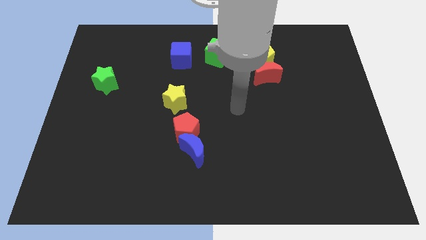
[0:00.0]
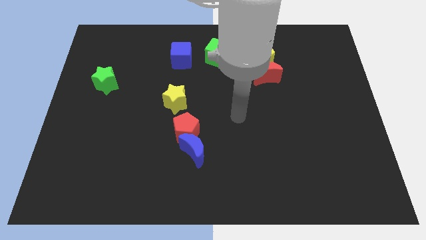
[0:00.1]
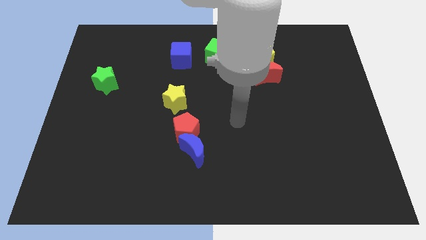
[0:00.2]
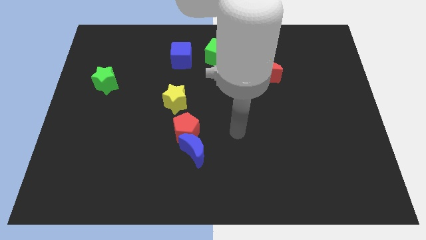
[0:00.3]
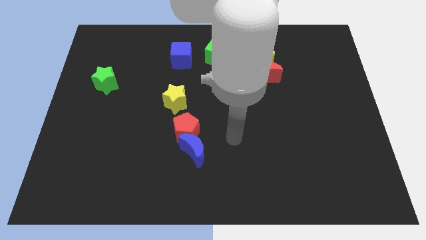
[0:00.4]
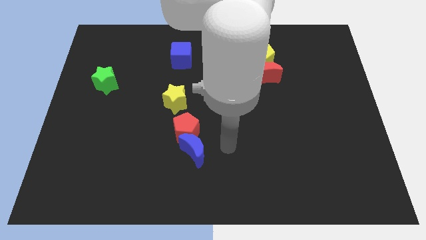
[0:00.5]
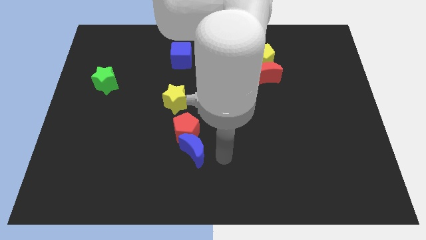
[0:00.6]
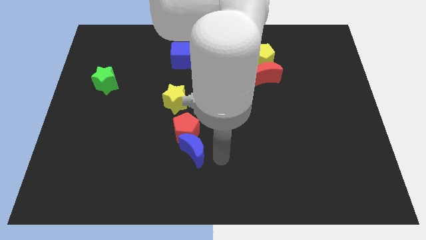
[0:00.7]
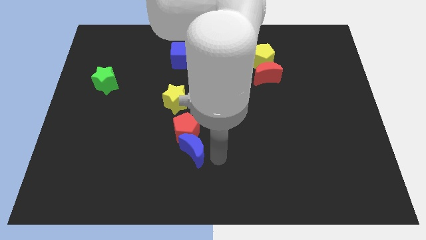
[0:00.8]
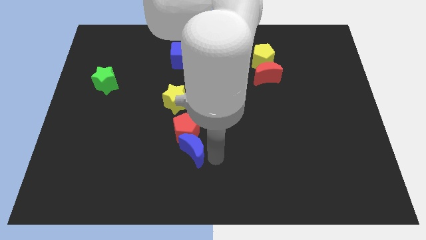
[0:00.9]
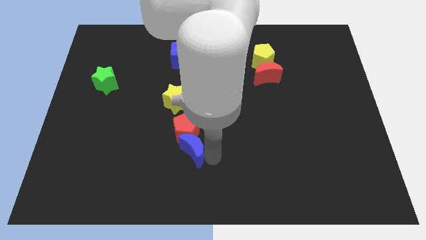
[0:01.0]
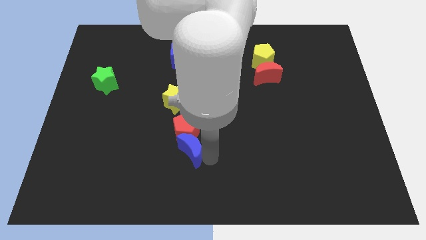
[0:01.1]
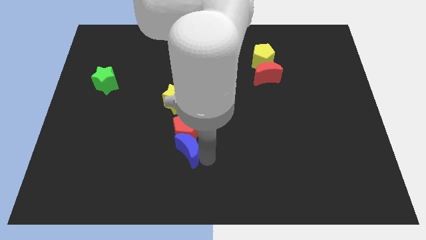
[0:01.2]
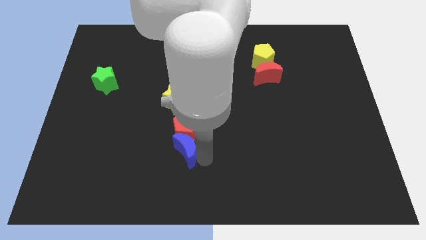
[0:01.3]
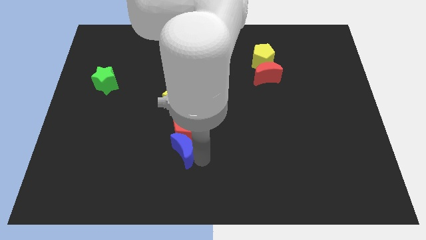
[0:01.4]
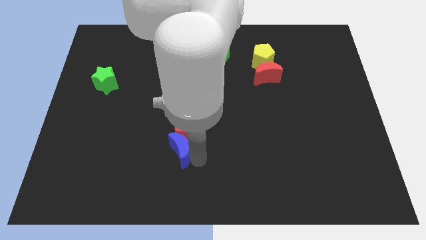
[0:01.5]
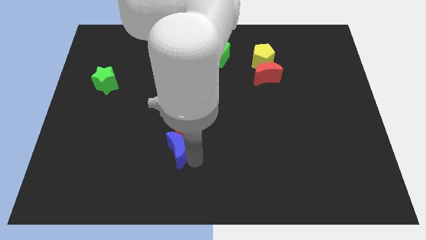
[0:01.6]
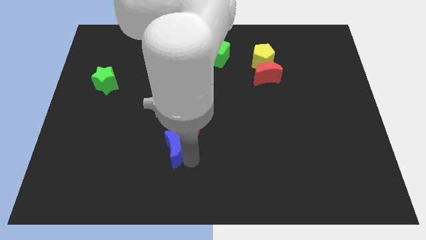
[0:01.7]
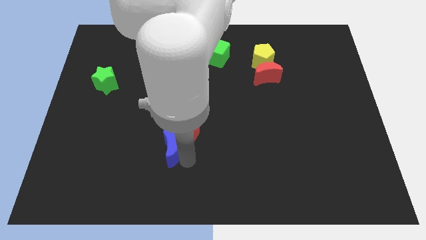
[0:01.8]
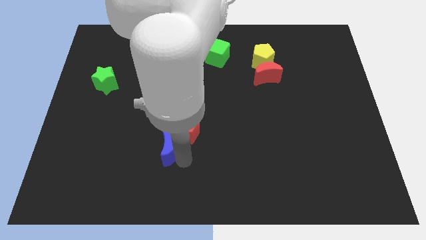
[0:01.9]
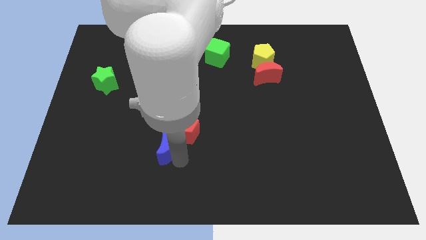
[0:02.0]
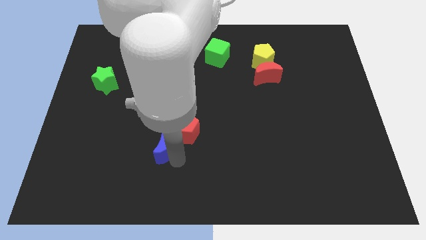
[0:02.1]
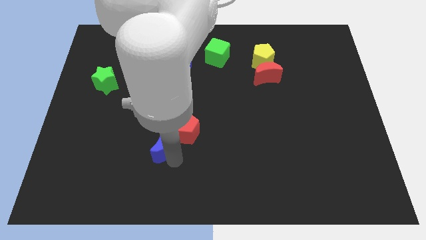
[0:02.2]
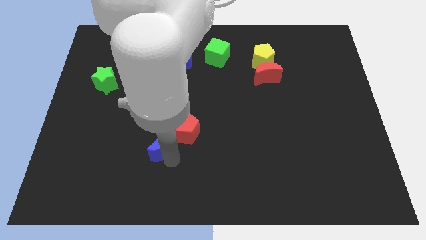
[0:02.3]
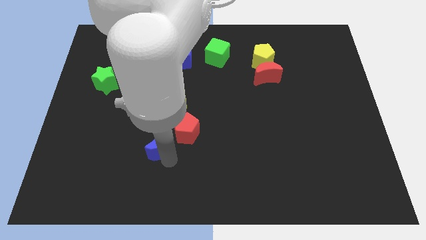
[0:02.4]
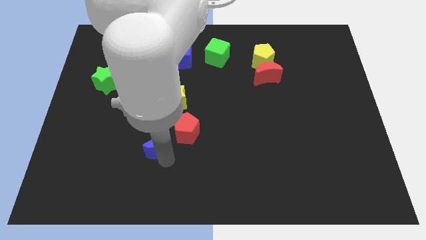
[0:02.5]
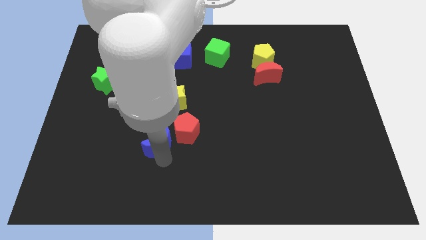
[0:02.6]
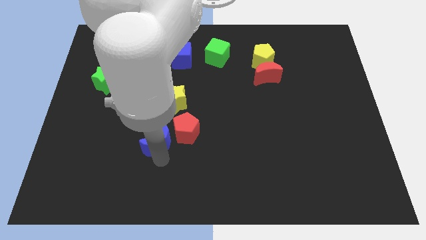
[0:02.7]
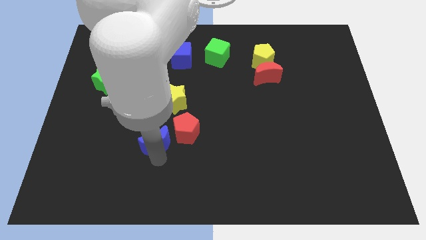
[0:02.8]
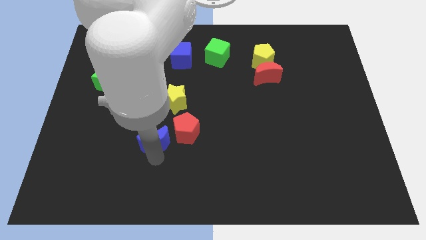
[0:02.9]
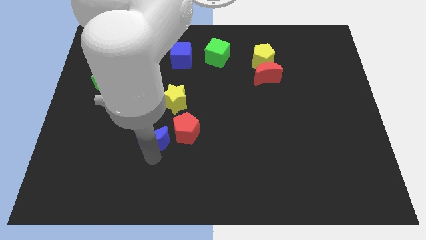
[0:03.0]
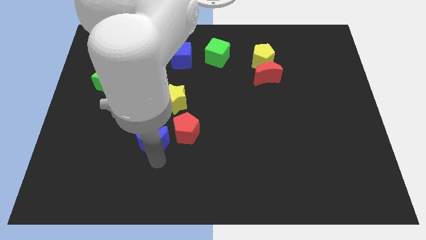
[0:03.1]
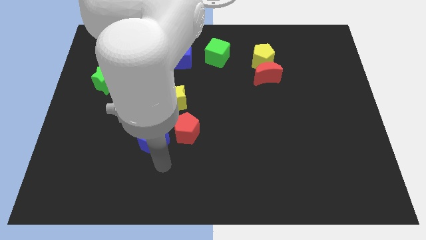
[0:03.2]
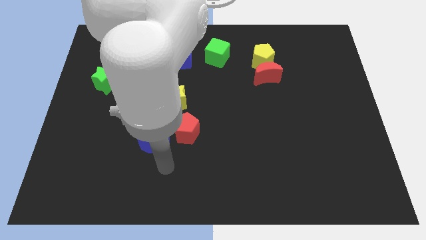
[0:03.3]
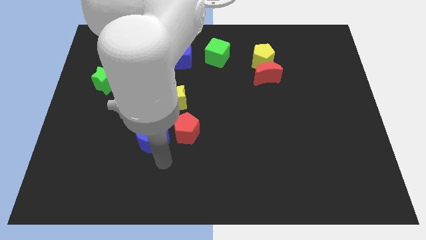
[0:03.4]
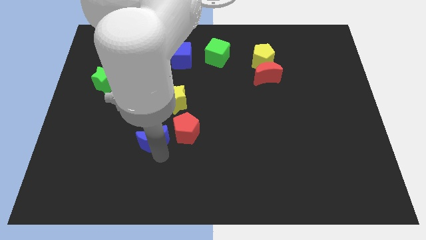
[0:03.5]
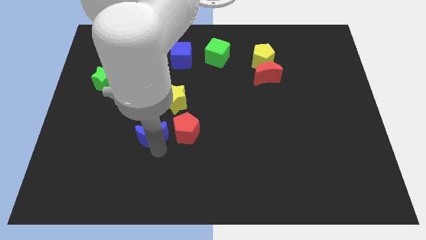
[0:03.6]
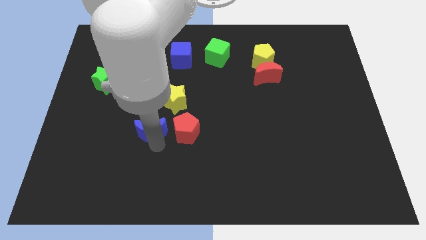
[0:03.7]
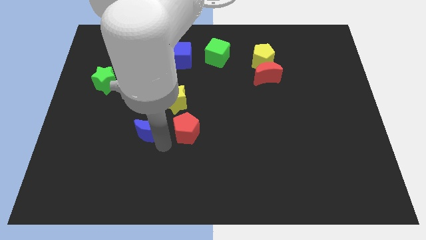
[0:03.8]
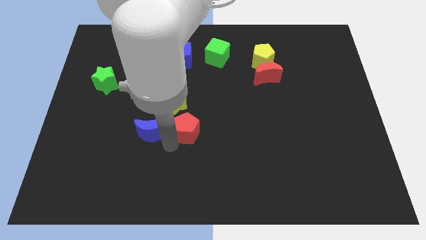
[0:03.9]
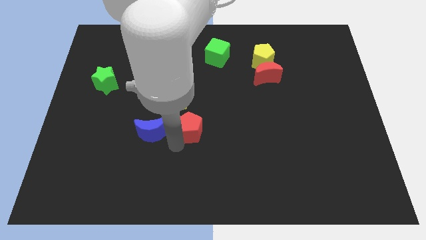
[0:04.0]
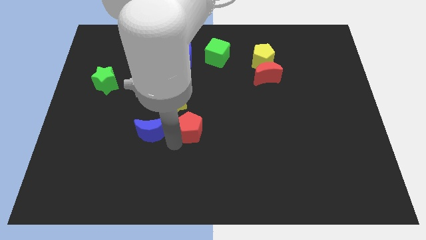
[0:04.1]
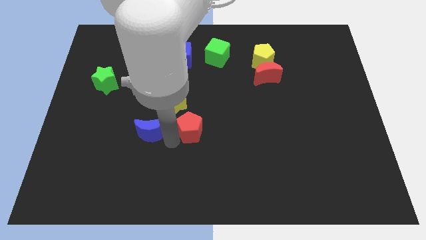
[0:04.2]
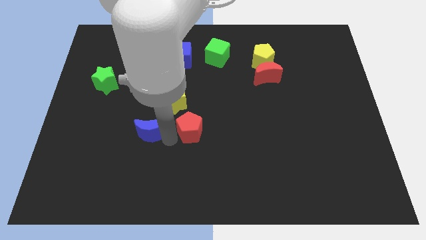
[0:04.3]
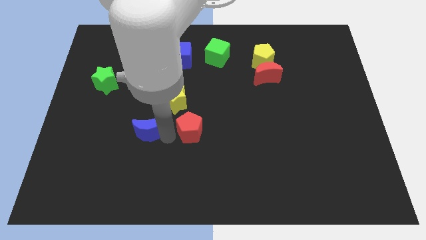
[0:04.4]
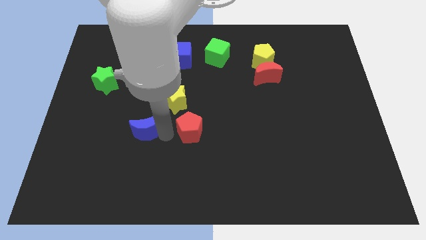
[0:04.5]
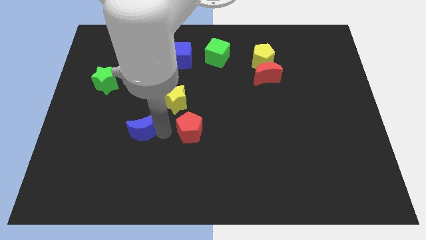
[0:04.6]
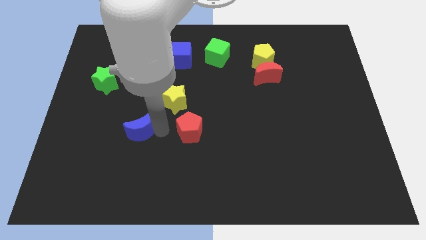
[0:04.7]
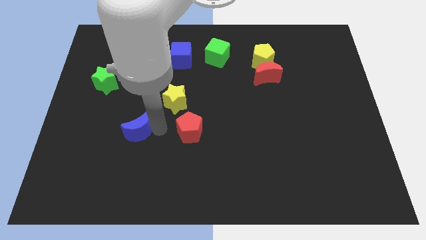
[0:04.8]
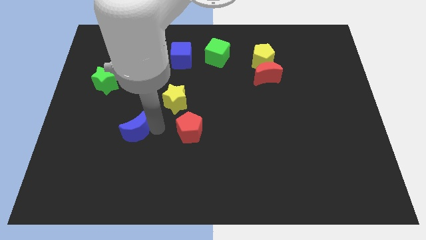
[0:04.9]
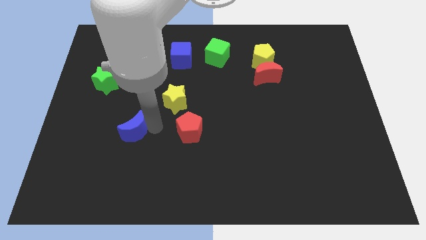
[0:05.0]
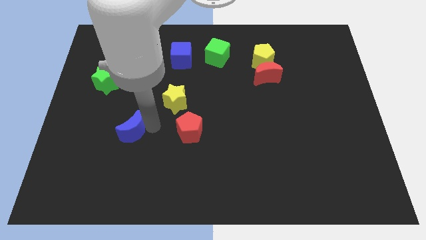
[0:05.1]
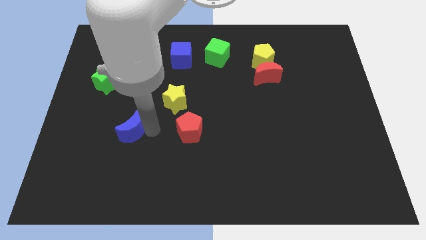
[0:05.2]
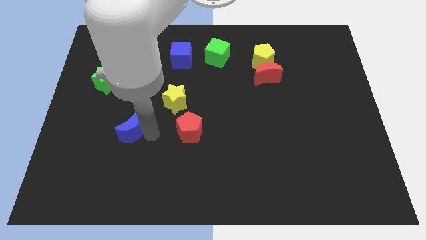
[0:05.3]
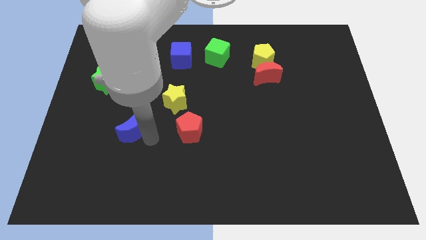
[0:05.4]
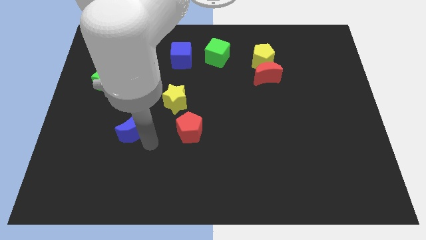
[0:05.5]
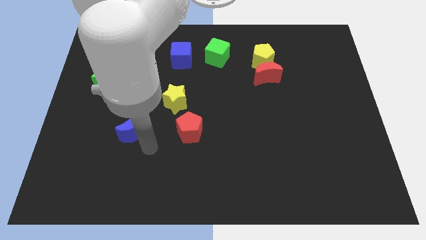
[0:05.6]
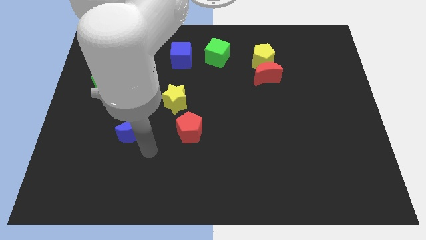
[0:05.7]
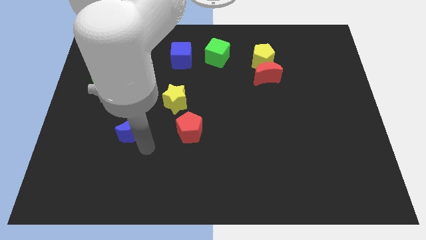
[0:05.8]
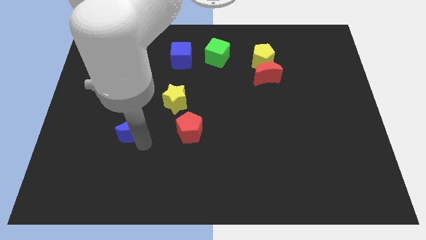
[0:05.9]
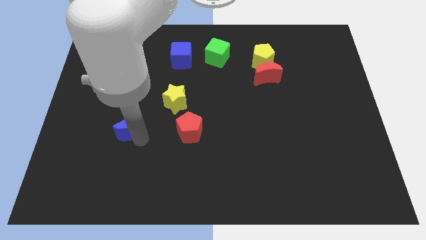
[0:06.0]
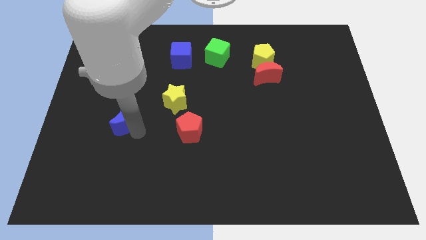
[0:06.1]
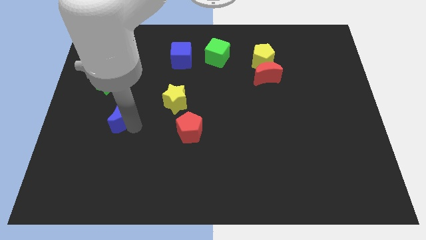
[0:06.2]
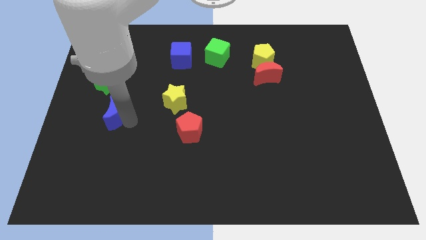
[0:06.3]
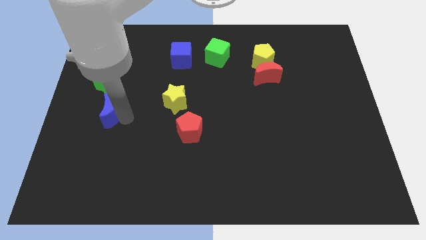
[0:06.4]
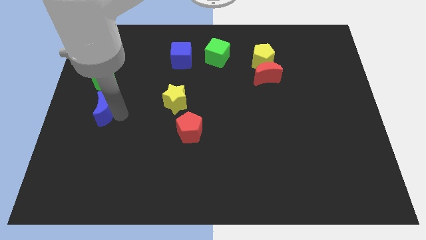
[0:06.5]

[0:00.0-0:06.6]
push the blue moon to the left side of the board

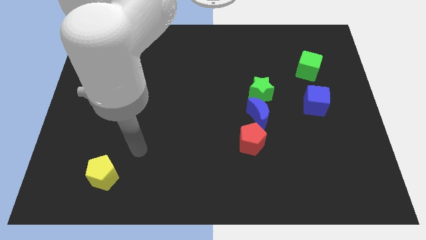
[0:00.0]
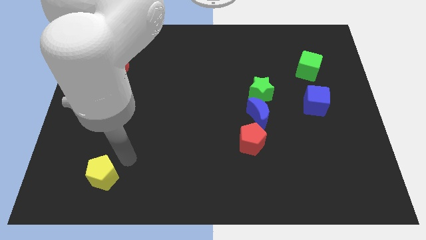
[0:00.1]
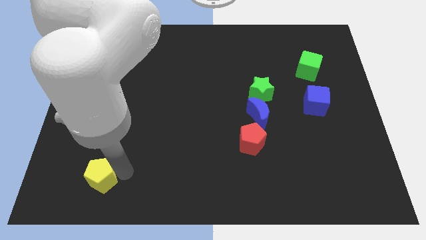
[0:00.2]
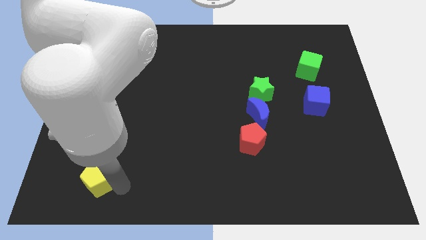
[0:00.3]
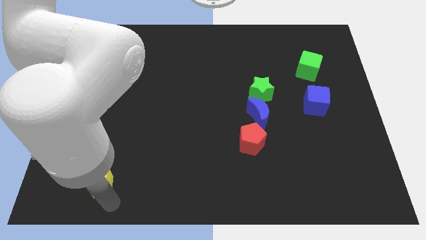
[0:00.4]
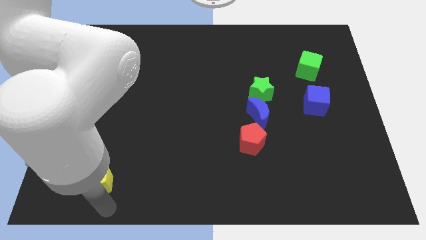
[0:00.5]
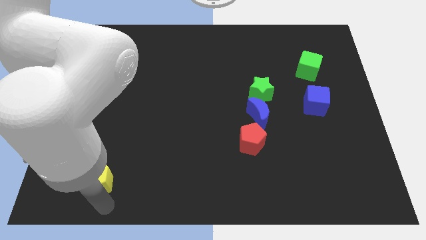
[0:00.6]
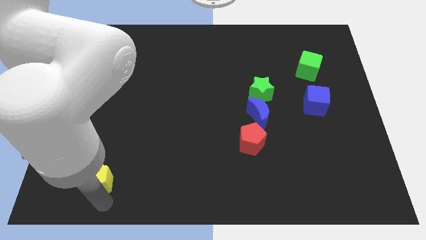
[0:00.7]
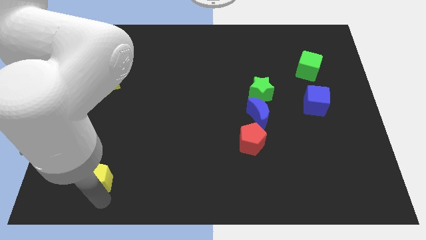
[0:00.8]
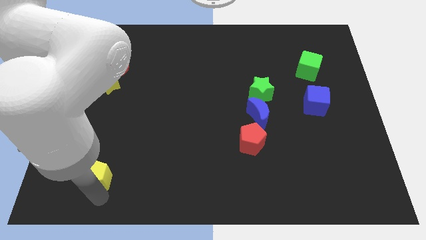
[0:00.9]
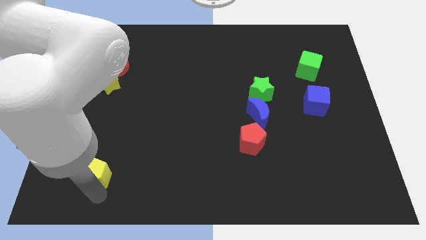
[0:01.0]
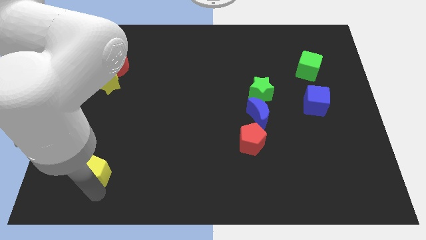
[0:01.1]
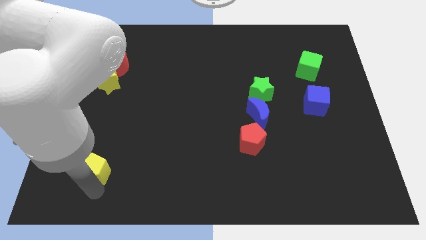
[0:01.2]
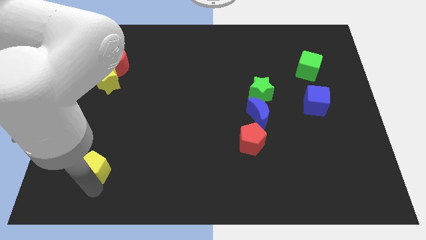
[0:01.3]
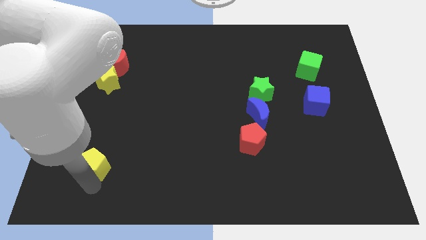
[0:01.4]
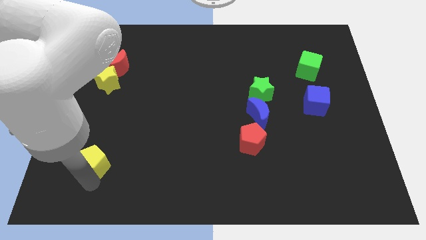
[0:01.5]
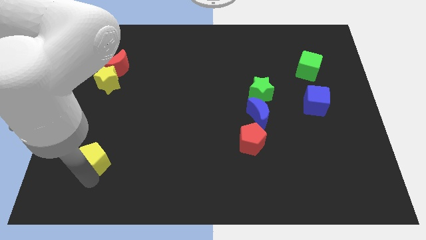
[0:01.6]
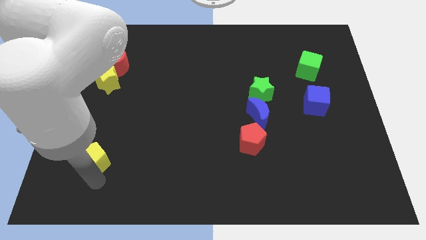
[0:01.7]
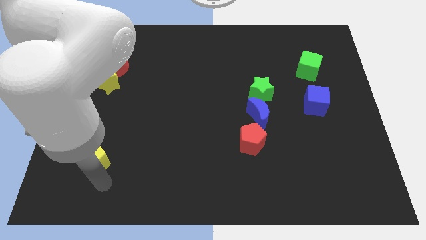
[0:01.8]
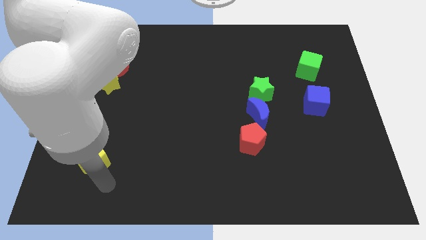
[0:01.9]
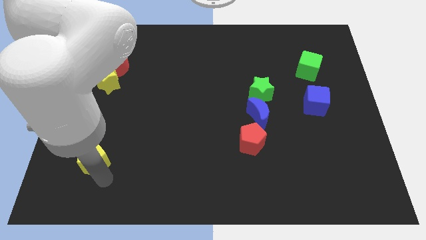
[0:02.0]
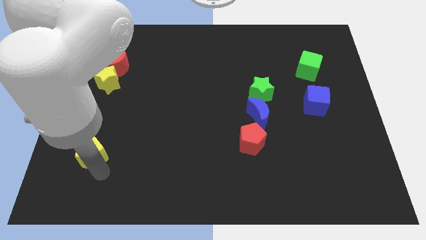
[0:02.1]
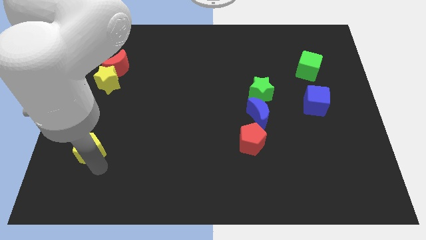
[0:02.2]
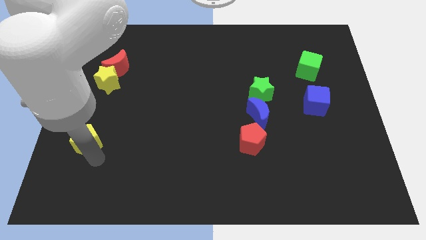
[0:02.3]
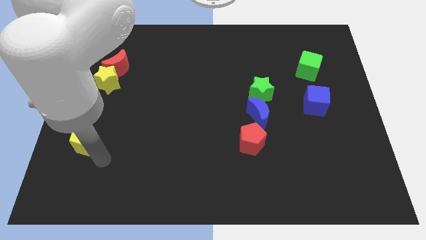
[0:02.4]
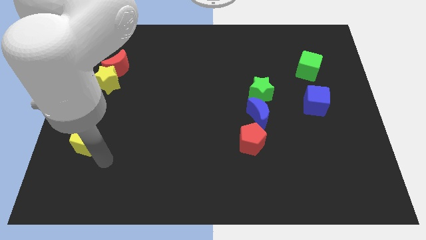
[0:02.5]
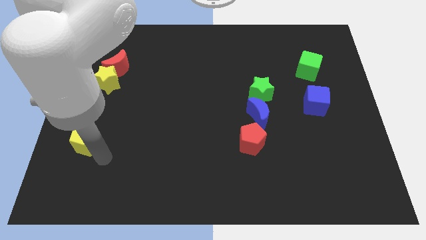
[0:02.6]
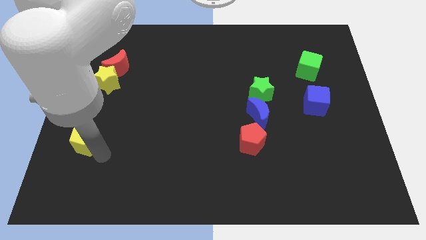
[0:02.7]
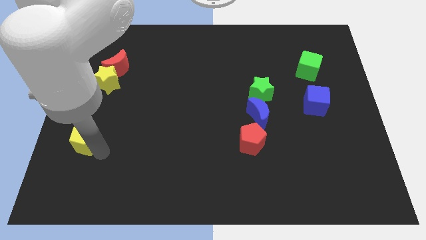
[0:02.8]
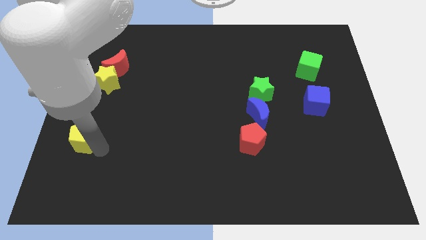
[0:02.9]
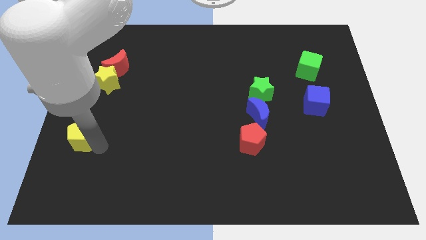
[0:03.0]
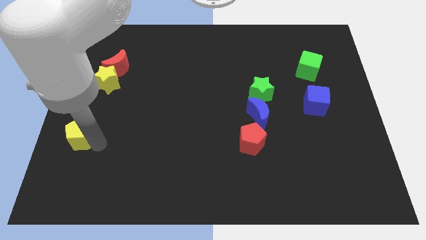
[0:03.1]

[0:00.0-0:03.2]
move the yellow pentagon to the left side
